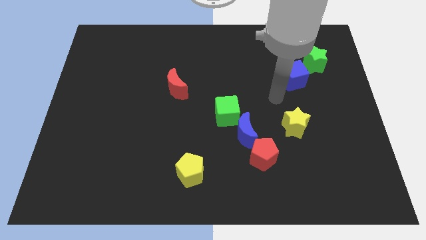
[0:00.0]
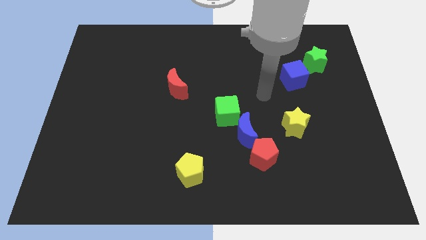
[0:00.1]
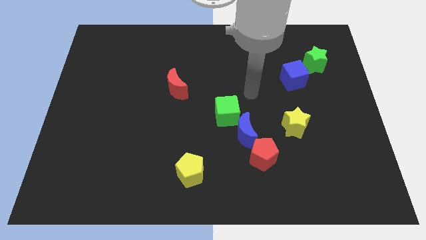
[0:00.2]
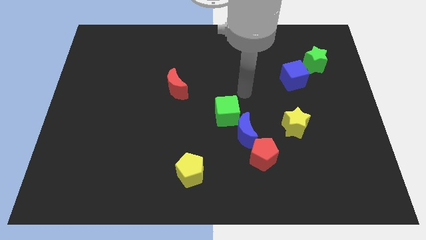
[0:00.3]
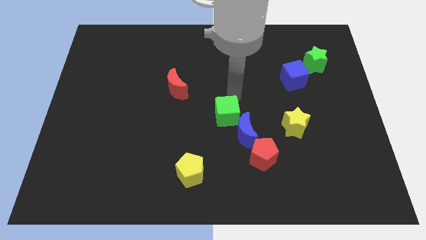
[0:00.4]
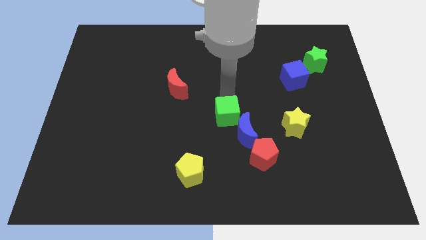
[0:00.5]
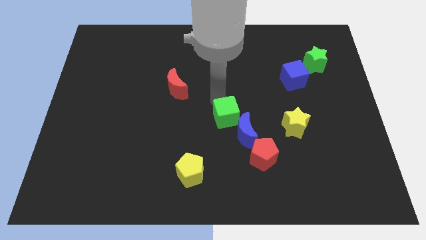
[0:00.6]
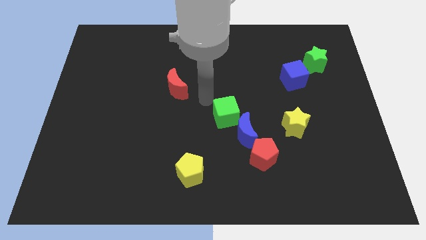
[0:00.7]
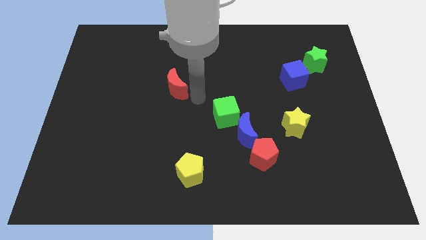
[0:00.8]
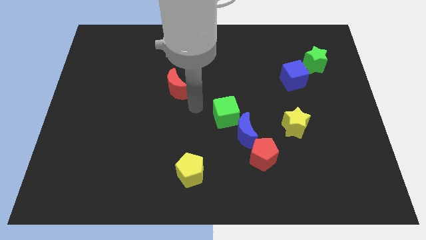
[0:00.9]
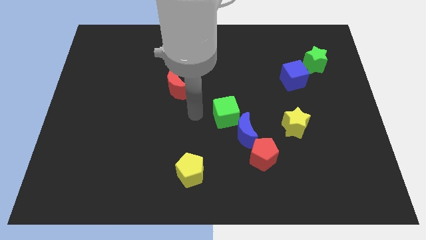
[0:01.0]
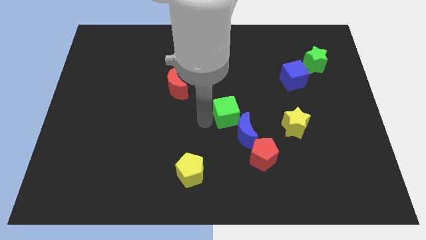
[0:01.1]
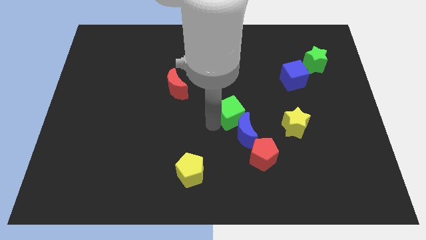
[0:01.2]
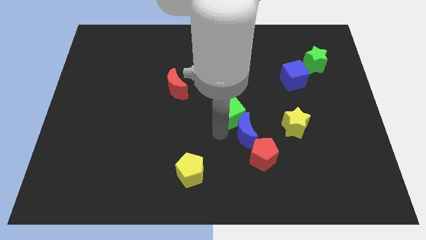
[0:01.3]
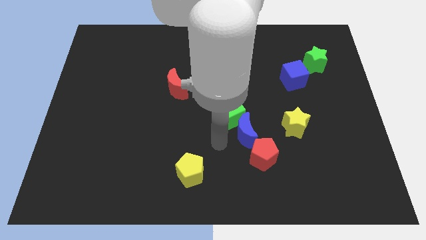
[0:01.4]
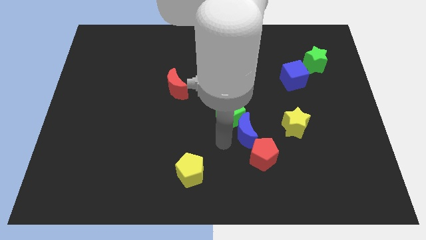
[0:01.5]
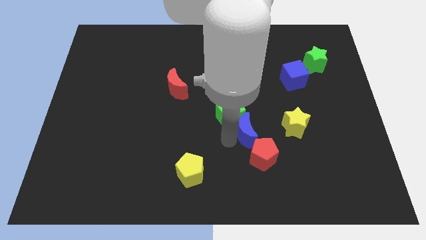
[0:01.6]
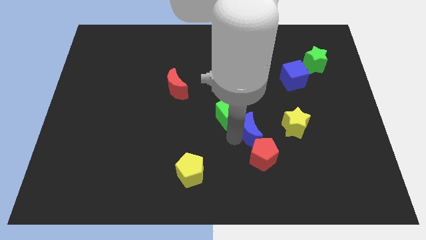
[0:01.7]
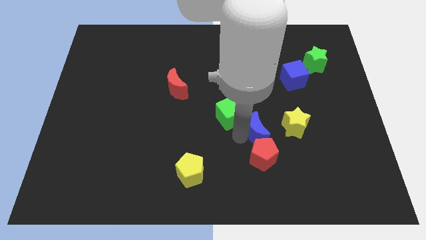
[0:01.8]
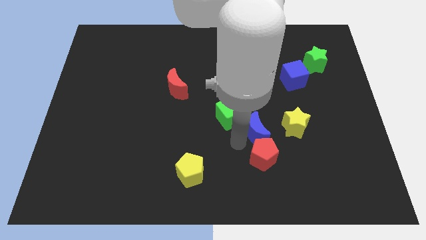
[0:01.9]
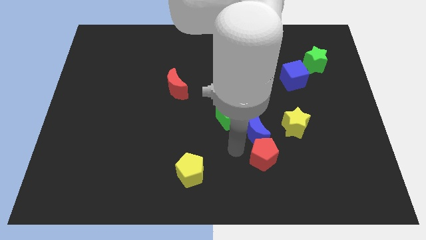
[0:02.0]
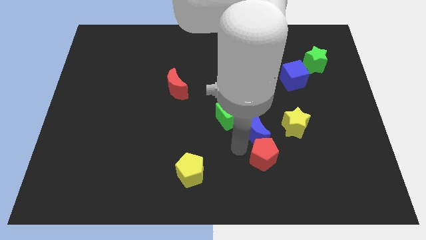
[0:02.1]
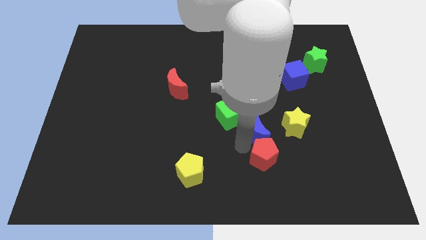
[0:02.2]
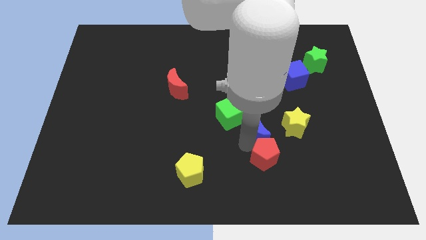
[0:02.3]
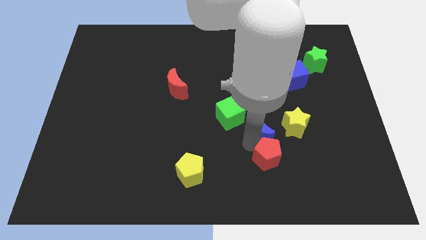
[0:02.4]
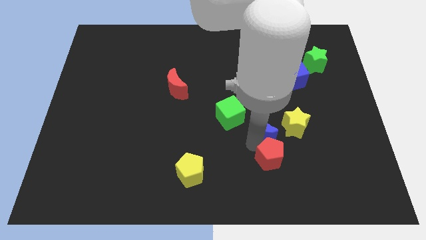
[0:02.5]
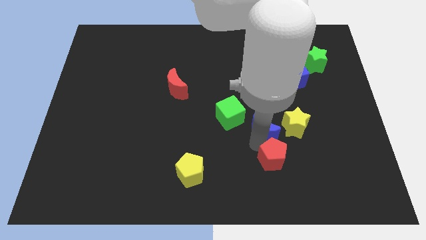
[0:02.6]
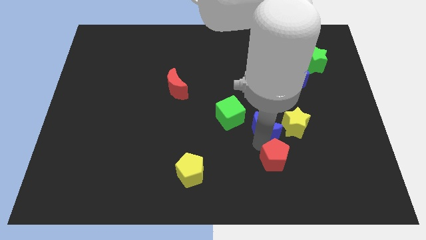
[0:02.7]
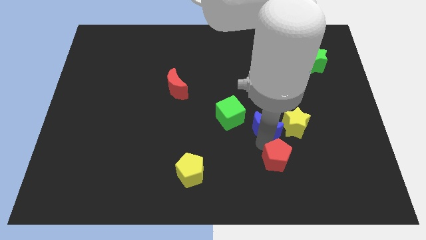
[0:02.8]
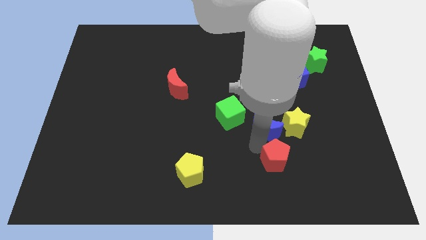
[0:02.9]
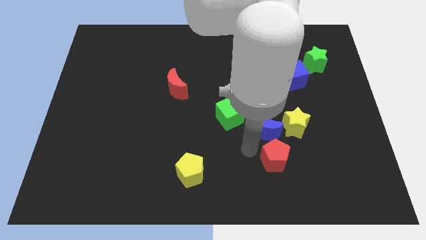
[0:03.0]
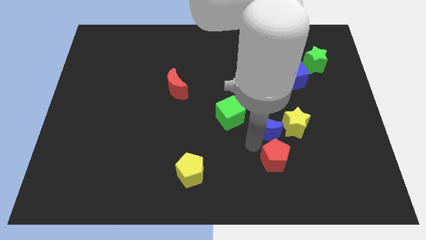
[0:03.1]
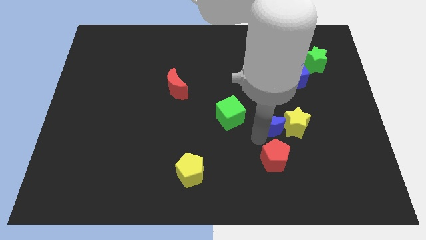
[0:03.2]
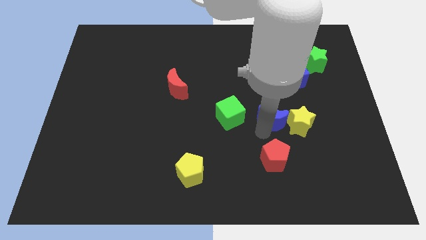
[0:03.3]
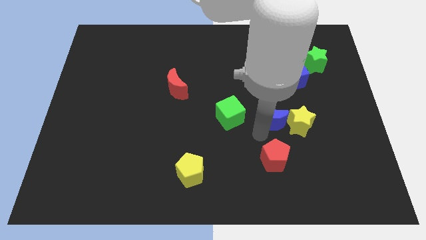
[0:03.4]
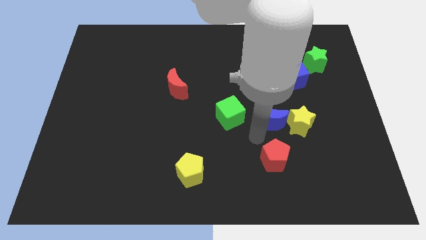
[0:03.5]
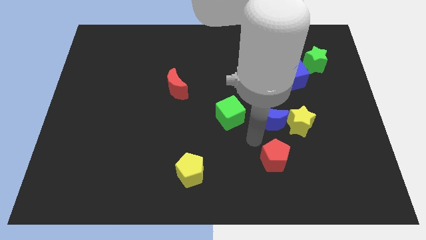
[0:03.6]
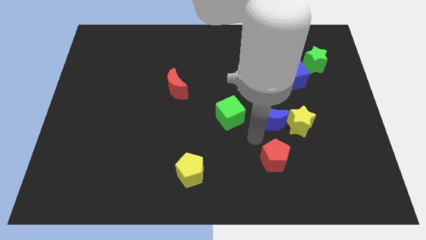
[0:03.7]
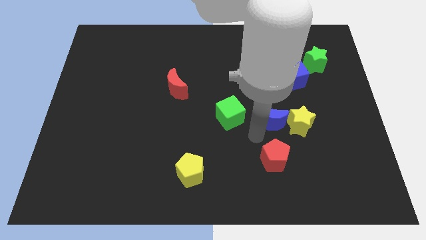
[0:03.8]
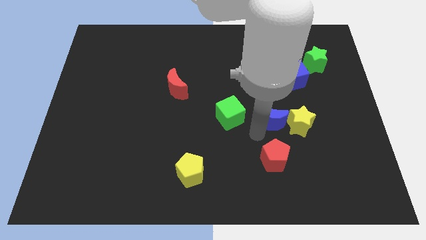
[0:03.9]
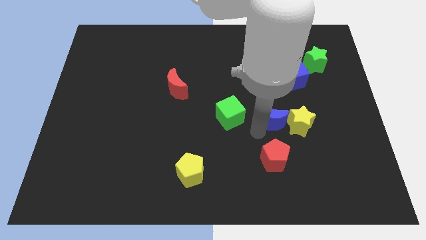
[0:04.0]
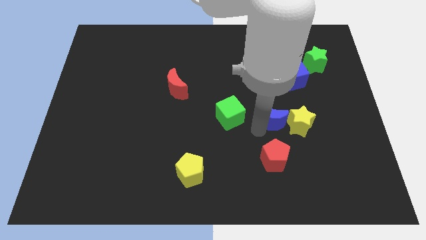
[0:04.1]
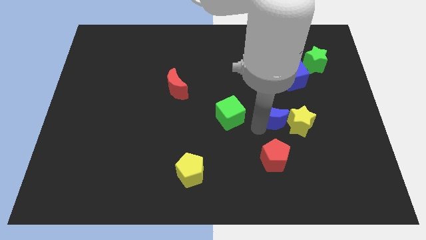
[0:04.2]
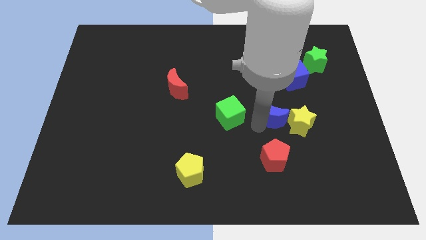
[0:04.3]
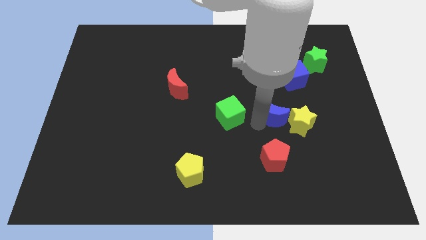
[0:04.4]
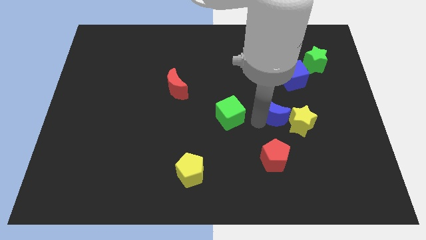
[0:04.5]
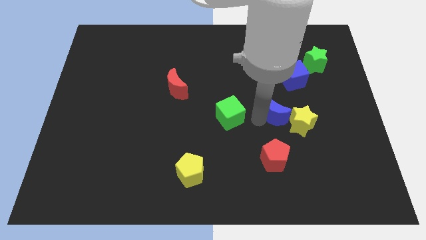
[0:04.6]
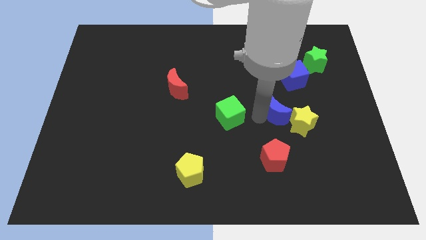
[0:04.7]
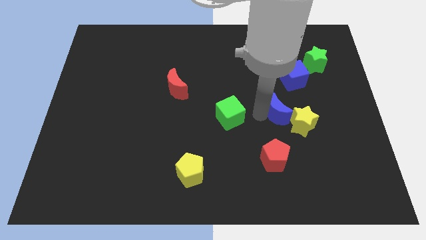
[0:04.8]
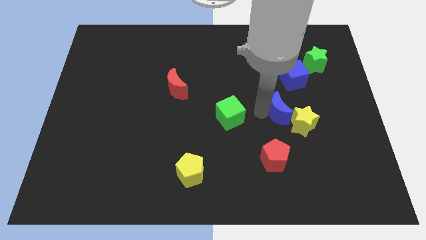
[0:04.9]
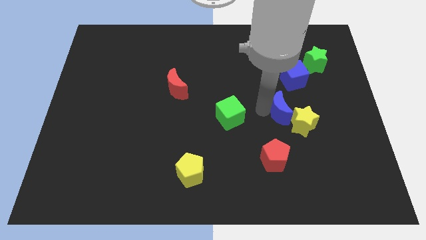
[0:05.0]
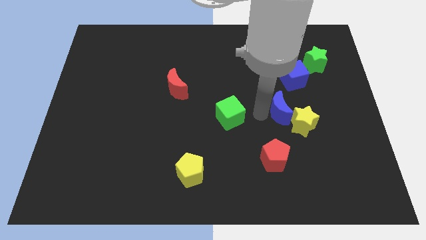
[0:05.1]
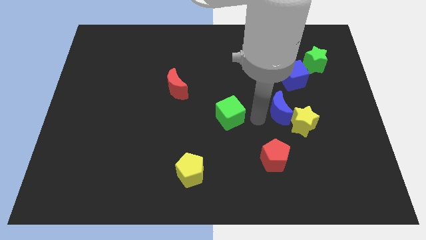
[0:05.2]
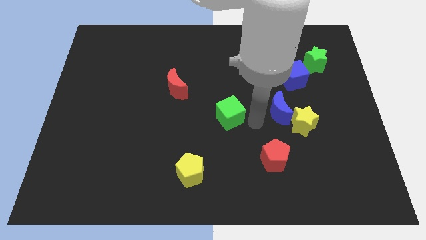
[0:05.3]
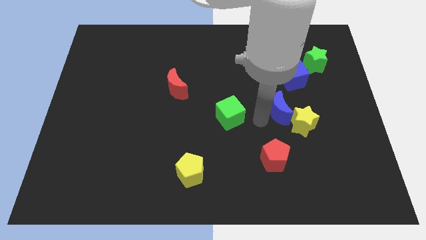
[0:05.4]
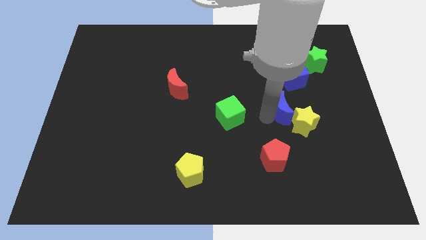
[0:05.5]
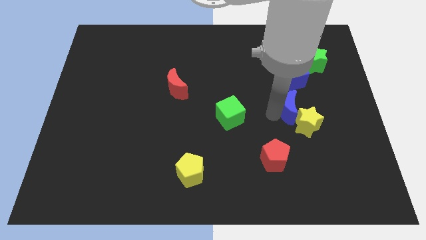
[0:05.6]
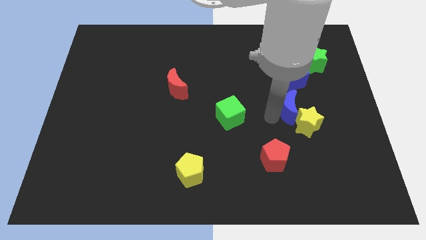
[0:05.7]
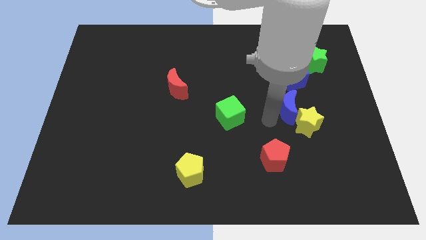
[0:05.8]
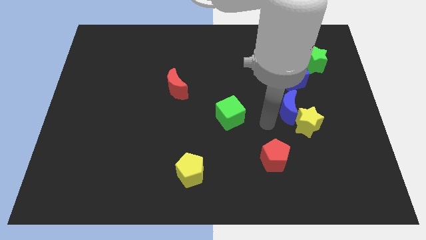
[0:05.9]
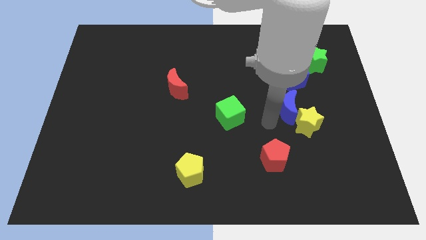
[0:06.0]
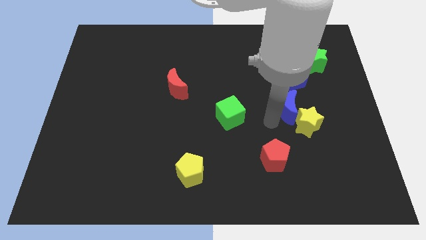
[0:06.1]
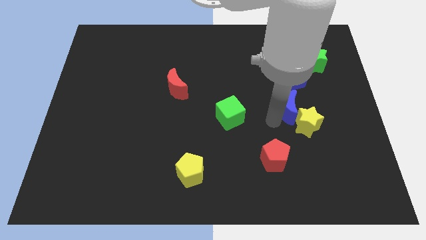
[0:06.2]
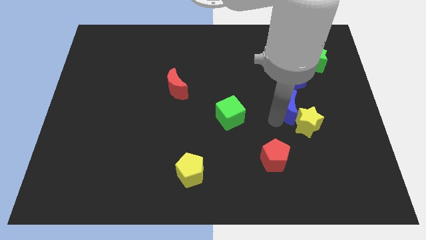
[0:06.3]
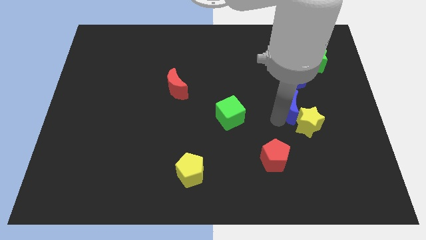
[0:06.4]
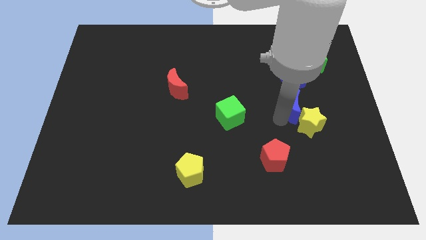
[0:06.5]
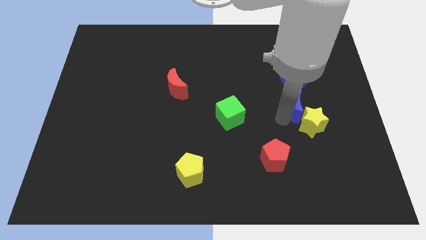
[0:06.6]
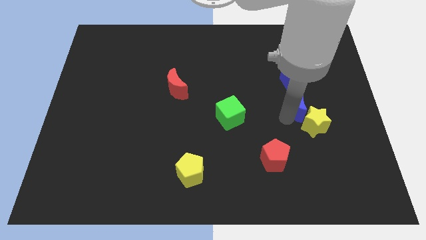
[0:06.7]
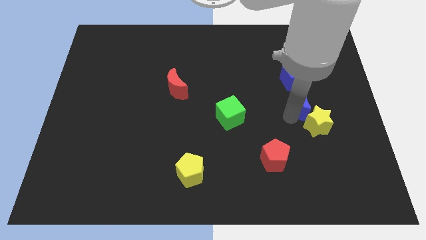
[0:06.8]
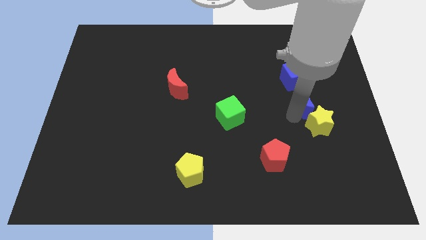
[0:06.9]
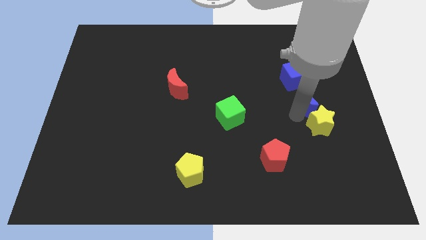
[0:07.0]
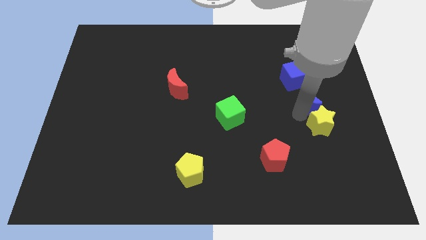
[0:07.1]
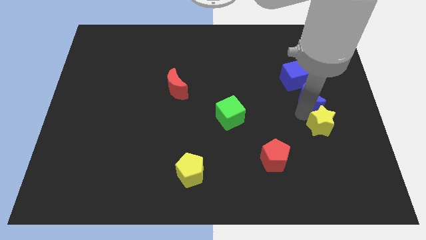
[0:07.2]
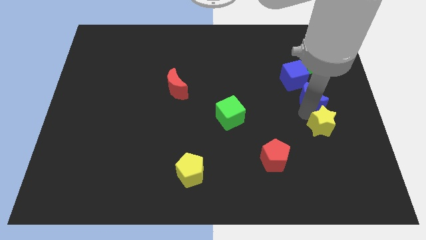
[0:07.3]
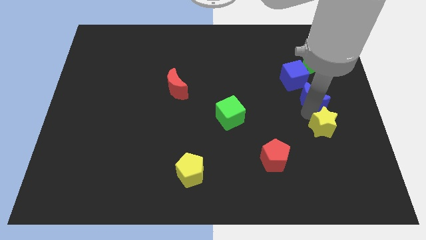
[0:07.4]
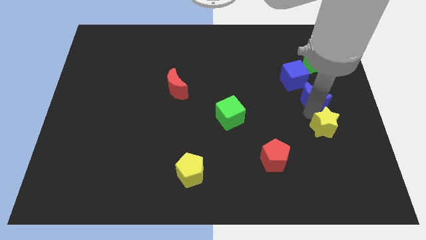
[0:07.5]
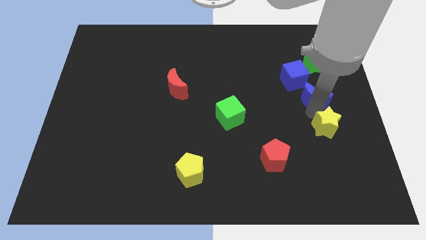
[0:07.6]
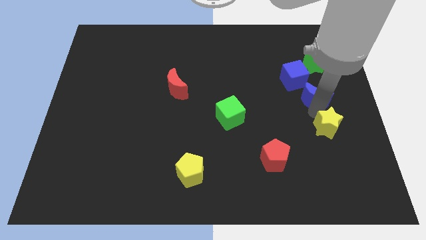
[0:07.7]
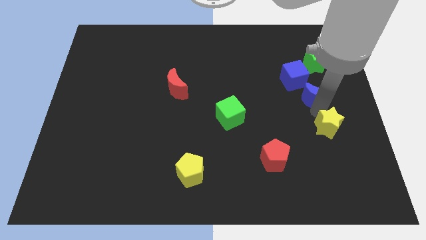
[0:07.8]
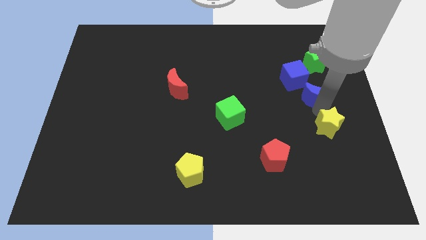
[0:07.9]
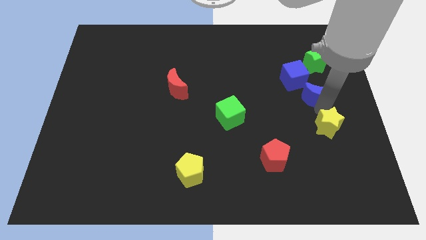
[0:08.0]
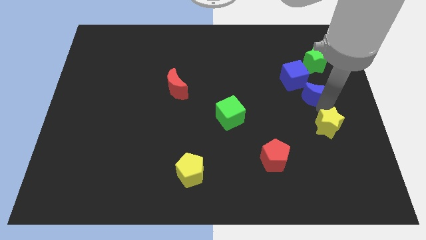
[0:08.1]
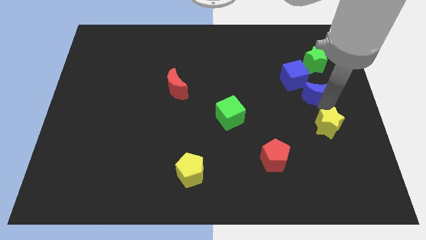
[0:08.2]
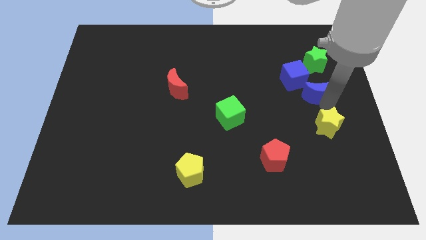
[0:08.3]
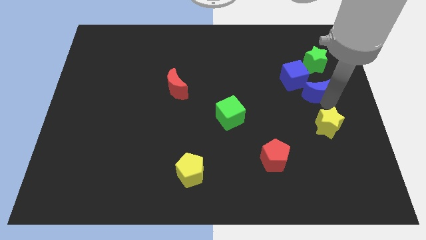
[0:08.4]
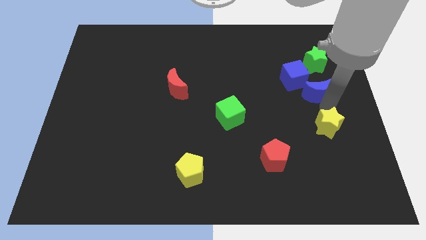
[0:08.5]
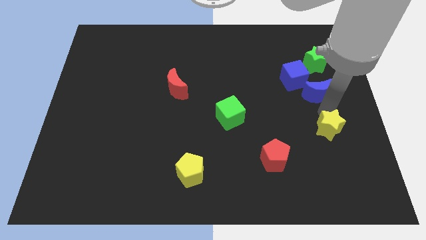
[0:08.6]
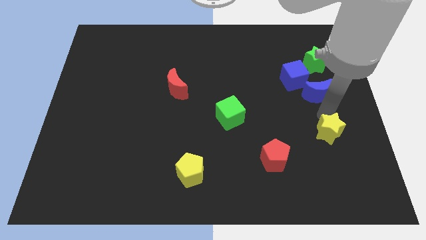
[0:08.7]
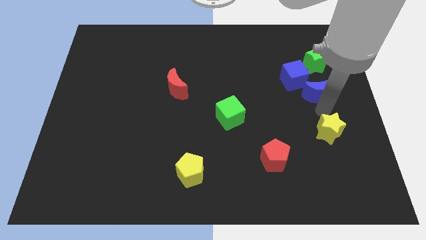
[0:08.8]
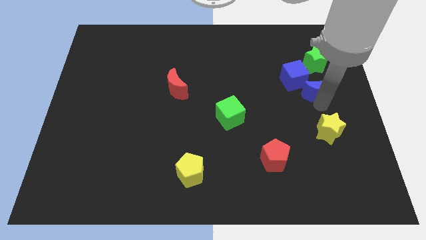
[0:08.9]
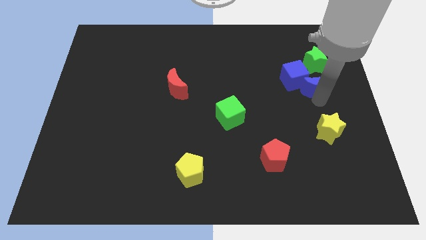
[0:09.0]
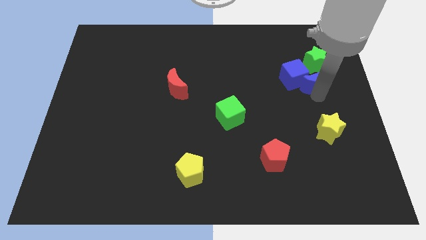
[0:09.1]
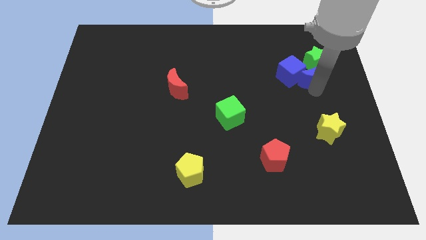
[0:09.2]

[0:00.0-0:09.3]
slide the blue moon next to the green star
